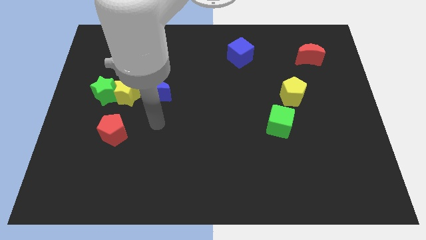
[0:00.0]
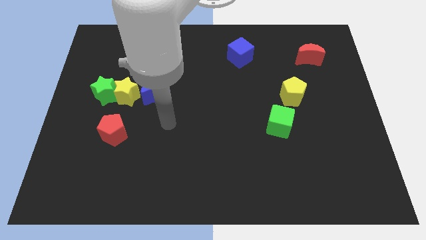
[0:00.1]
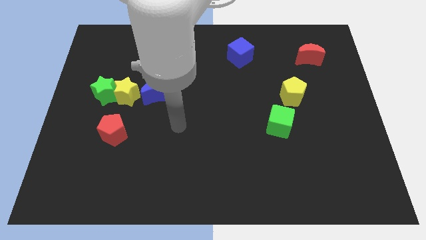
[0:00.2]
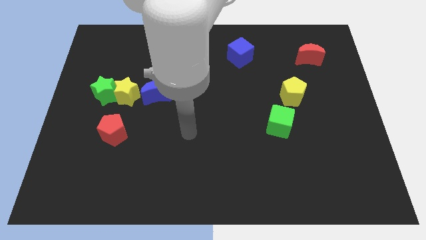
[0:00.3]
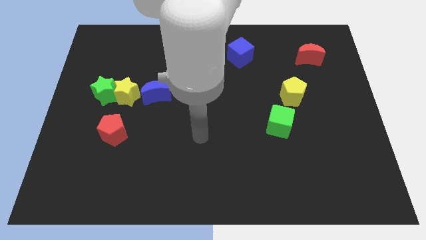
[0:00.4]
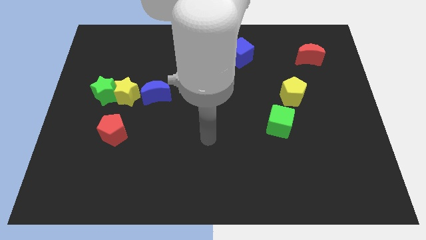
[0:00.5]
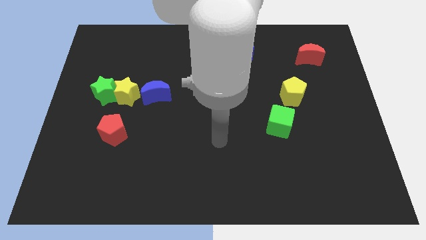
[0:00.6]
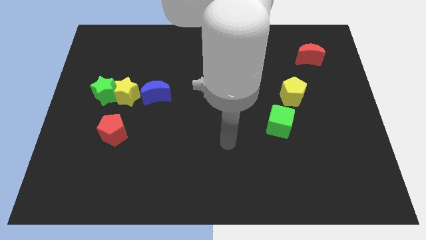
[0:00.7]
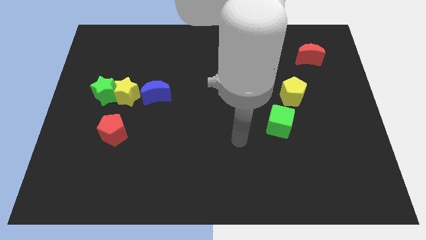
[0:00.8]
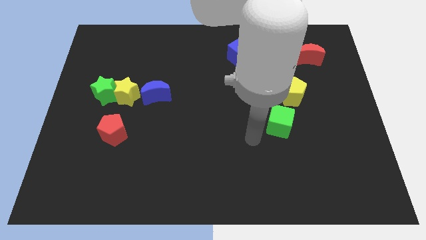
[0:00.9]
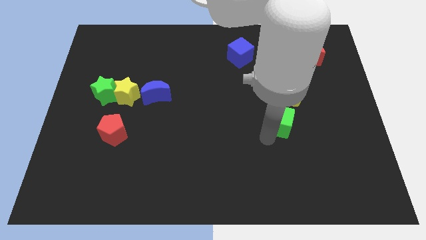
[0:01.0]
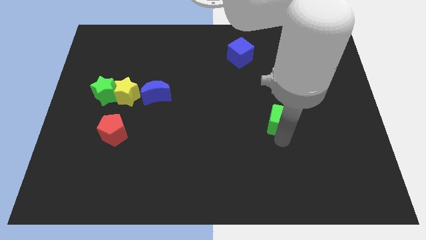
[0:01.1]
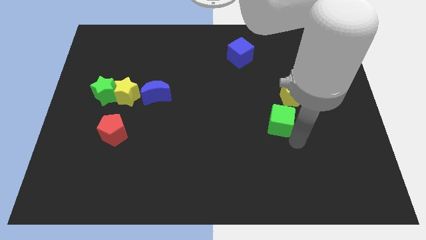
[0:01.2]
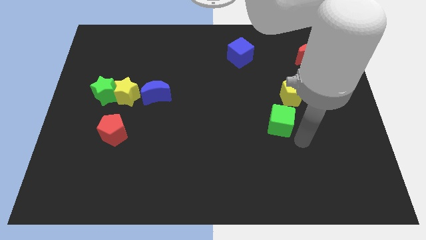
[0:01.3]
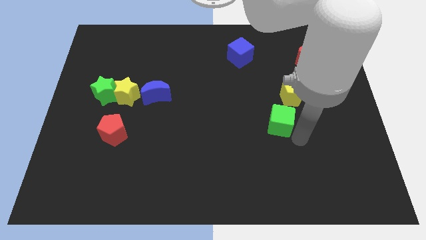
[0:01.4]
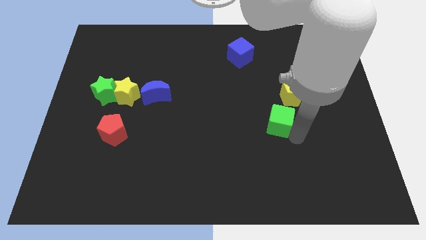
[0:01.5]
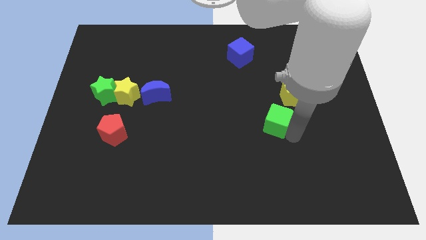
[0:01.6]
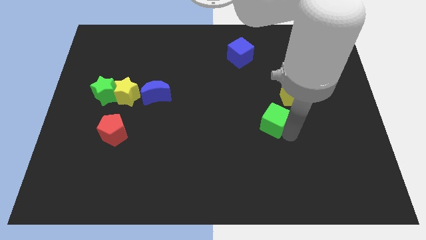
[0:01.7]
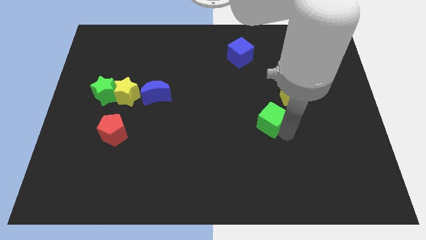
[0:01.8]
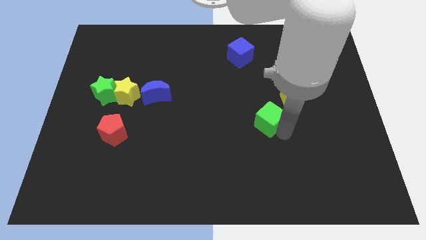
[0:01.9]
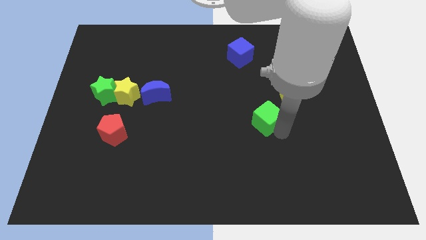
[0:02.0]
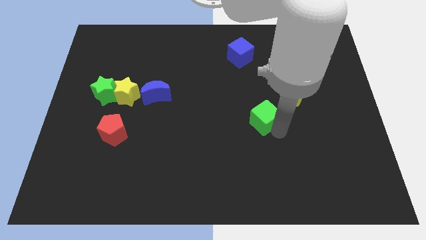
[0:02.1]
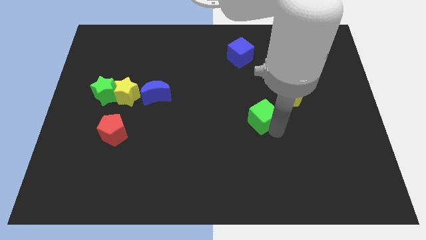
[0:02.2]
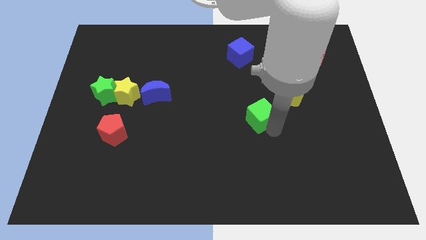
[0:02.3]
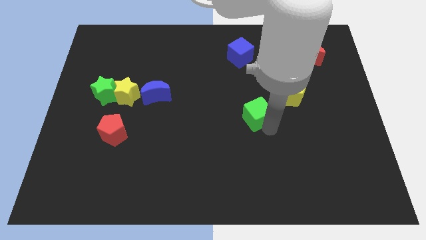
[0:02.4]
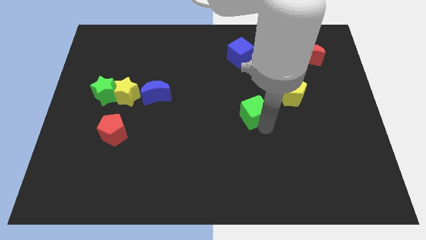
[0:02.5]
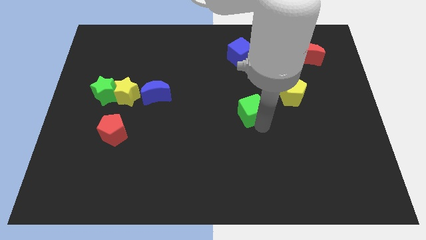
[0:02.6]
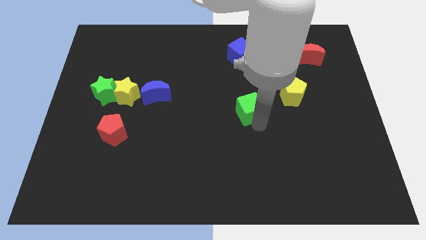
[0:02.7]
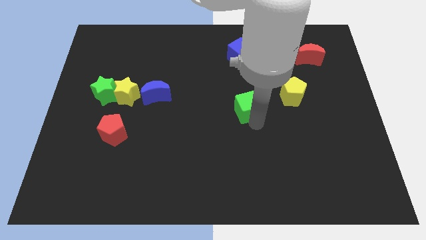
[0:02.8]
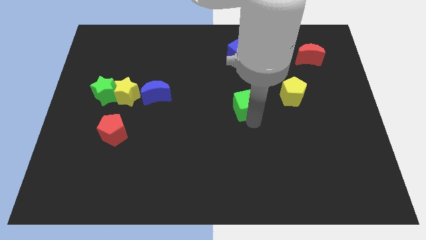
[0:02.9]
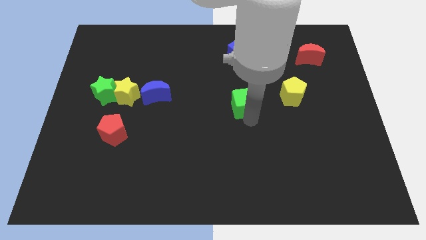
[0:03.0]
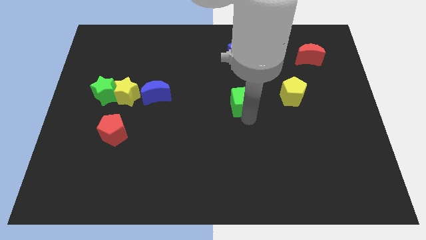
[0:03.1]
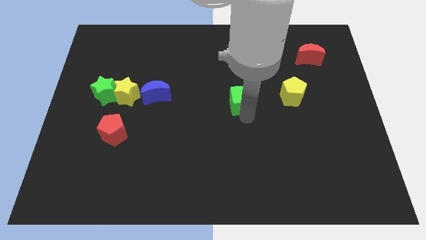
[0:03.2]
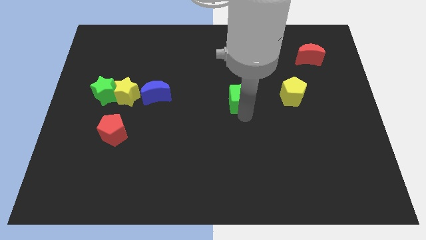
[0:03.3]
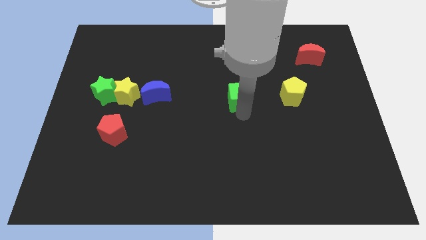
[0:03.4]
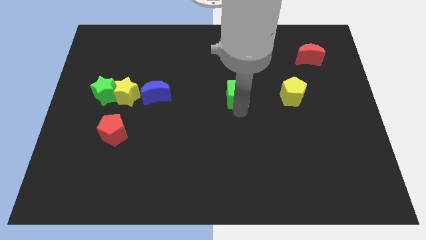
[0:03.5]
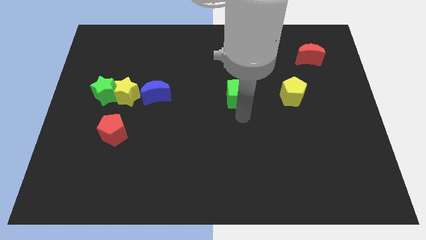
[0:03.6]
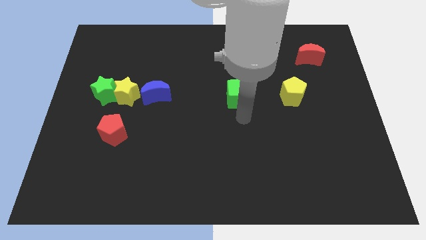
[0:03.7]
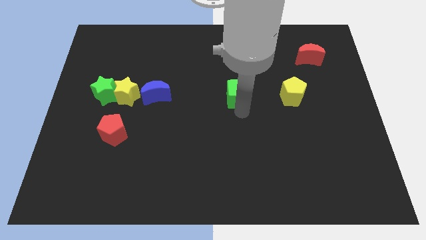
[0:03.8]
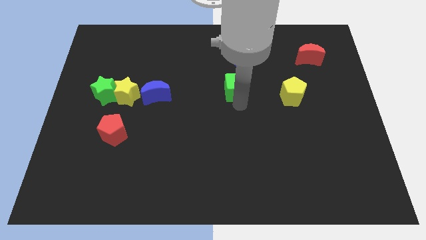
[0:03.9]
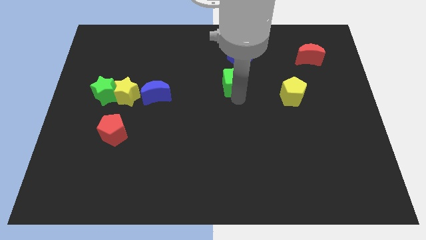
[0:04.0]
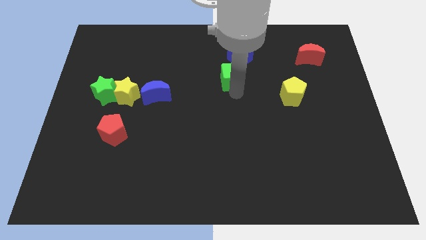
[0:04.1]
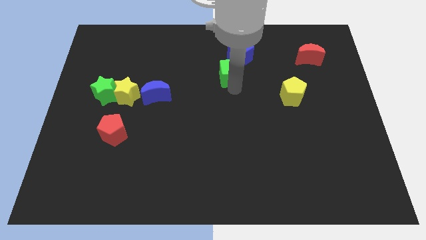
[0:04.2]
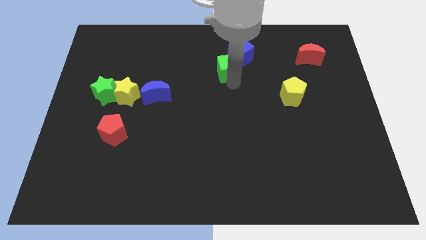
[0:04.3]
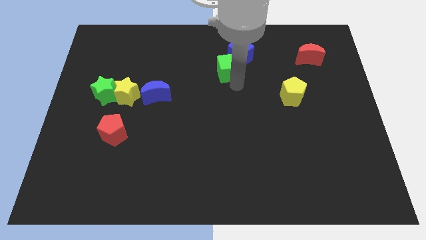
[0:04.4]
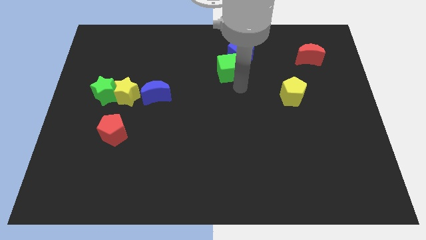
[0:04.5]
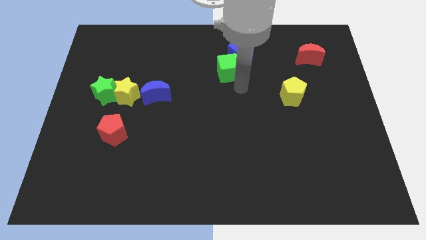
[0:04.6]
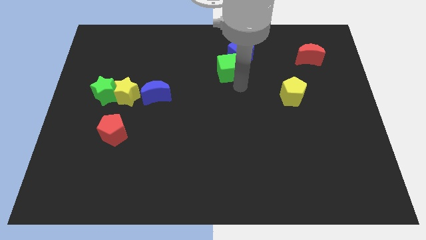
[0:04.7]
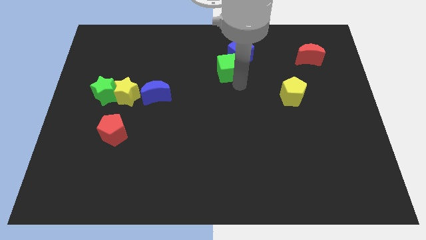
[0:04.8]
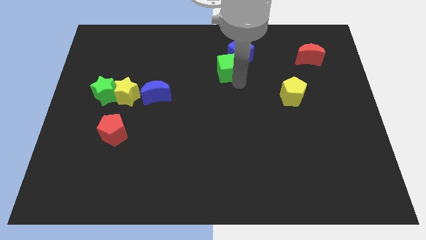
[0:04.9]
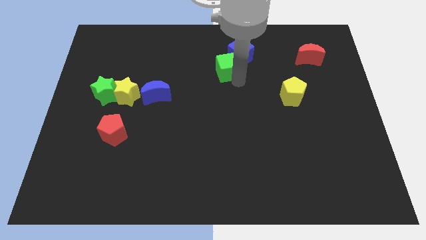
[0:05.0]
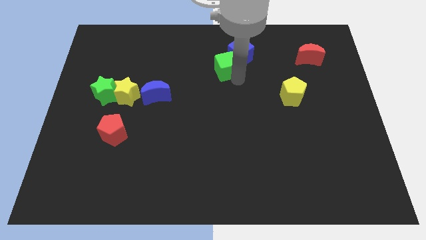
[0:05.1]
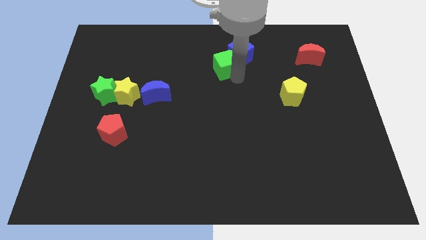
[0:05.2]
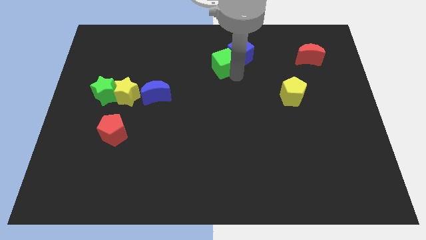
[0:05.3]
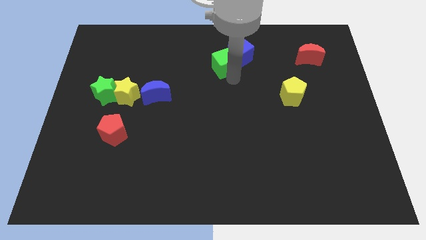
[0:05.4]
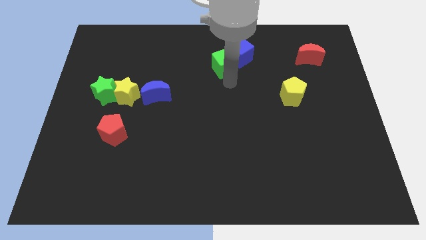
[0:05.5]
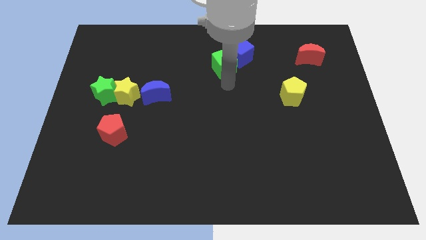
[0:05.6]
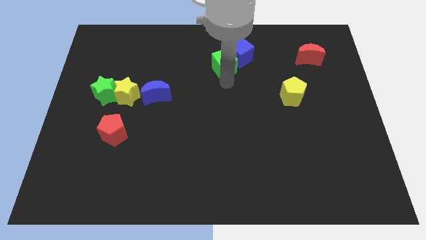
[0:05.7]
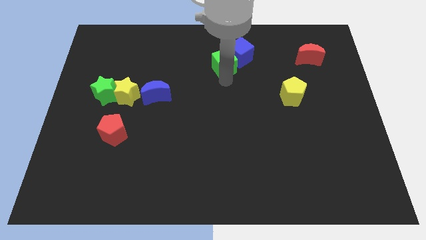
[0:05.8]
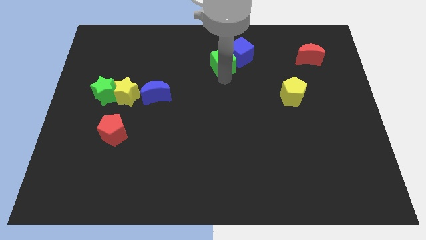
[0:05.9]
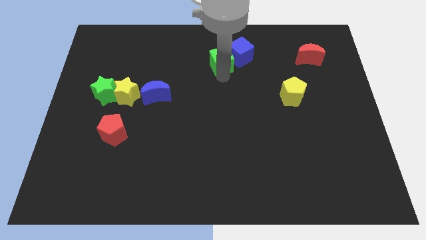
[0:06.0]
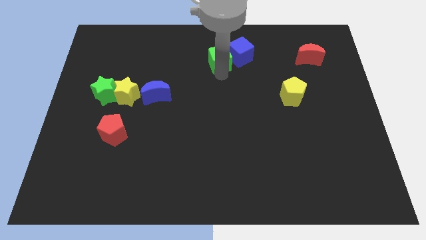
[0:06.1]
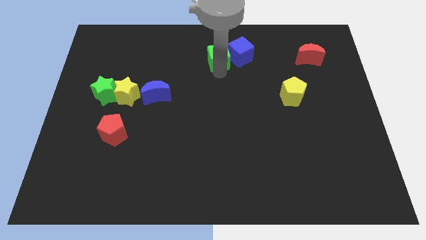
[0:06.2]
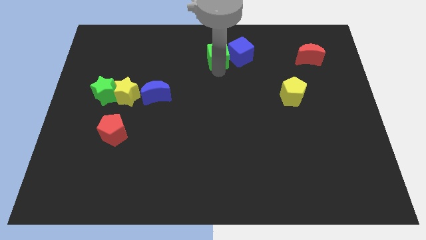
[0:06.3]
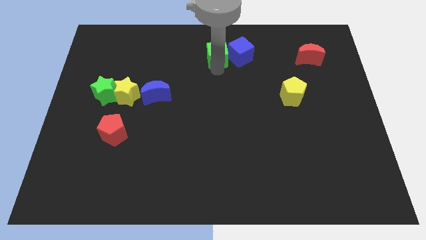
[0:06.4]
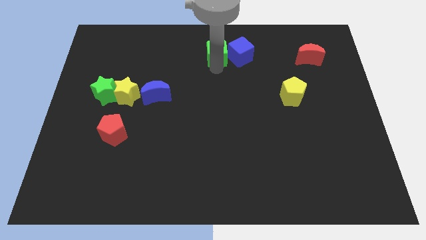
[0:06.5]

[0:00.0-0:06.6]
slide the green cube to the top side

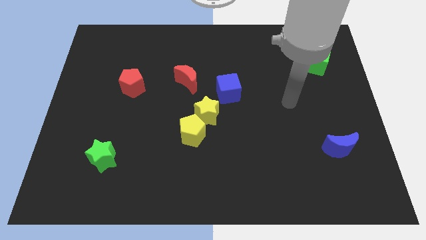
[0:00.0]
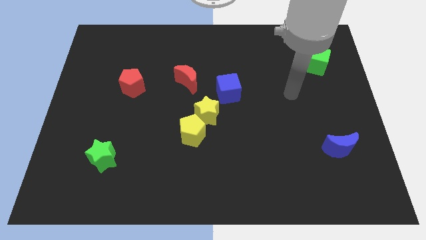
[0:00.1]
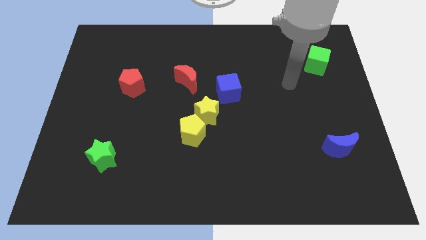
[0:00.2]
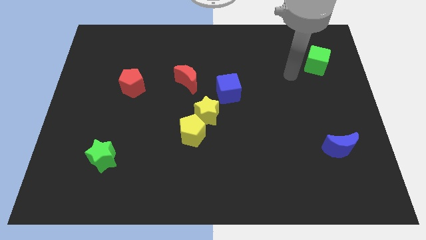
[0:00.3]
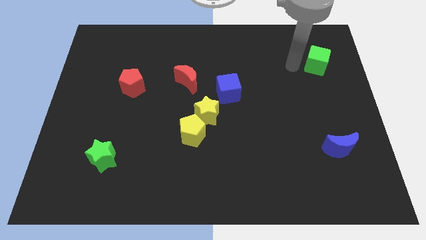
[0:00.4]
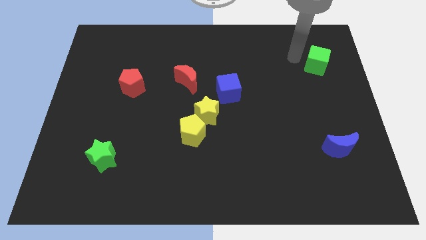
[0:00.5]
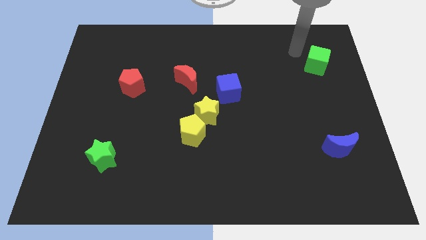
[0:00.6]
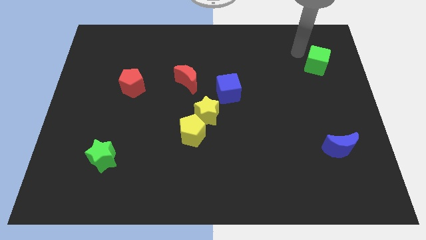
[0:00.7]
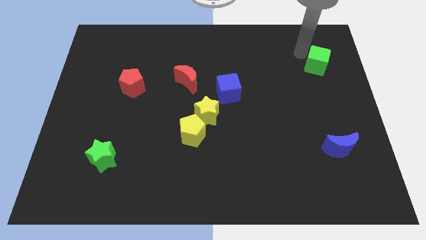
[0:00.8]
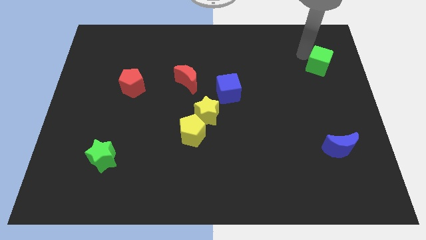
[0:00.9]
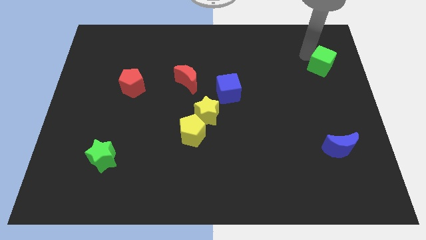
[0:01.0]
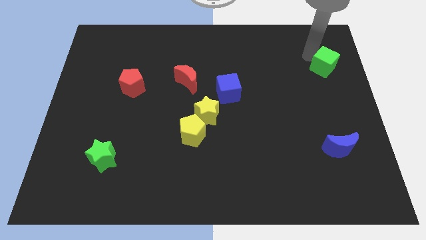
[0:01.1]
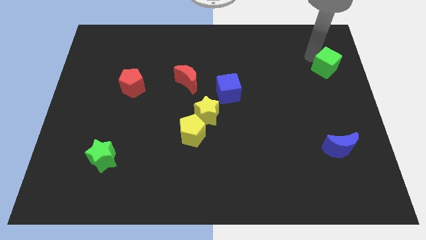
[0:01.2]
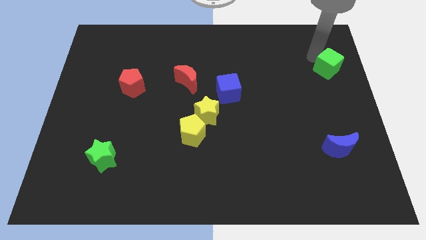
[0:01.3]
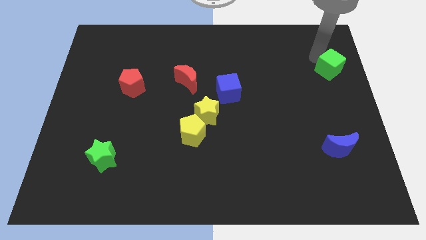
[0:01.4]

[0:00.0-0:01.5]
move the green cube to the right side
